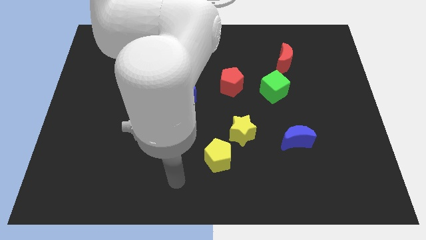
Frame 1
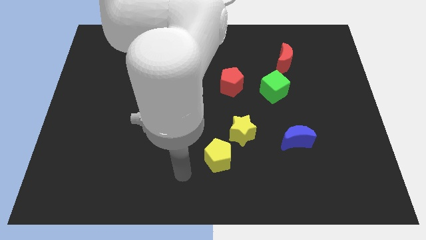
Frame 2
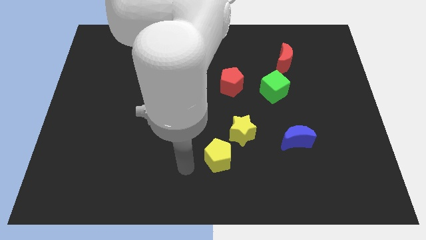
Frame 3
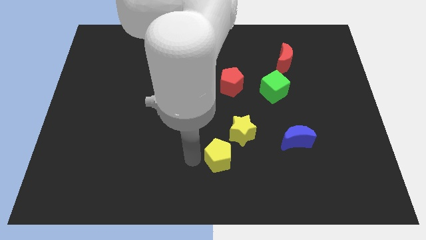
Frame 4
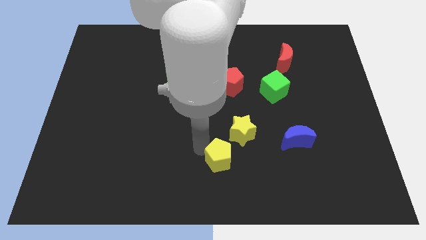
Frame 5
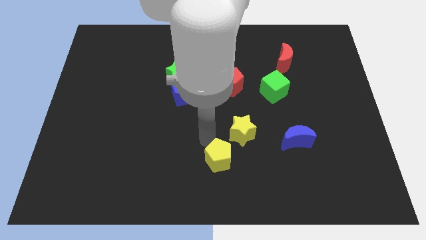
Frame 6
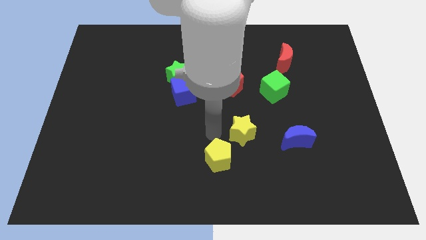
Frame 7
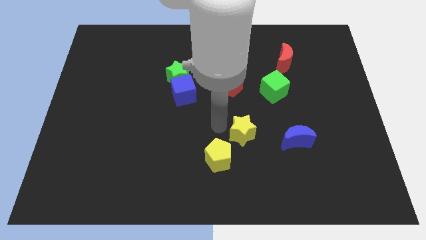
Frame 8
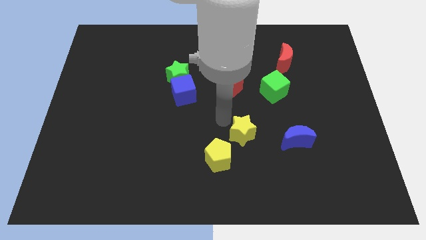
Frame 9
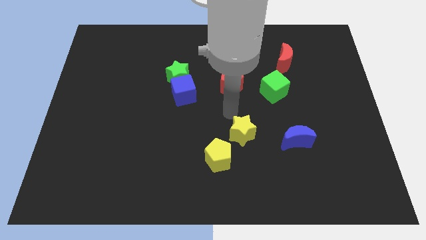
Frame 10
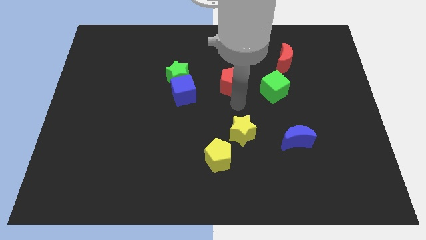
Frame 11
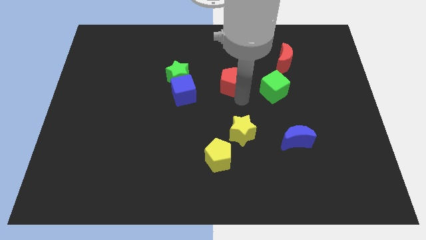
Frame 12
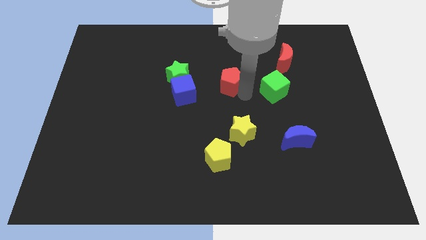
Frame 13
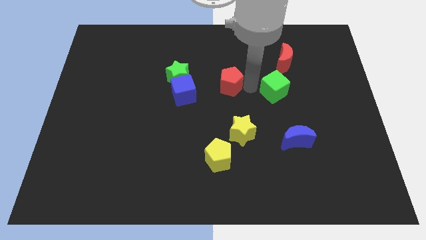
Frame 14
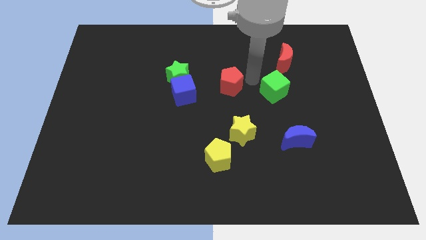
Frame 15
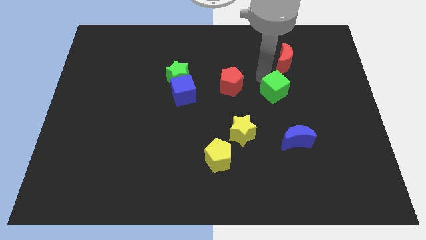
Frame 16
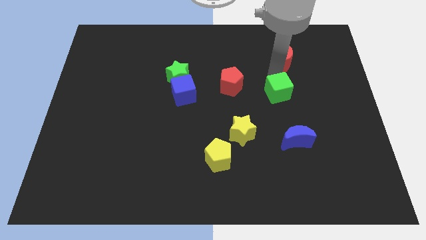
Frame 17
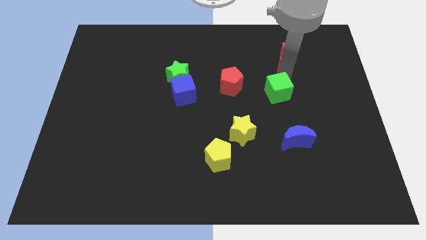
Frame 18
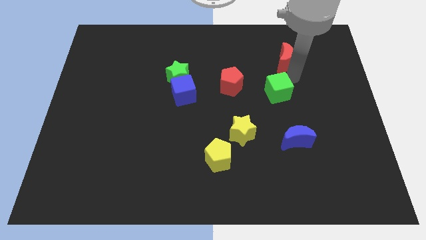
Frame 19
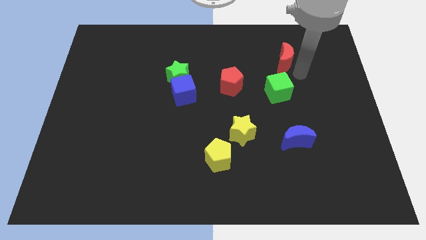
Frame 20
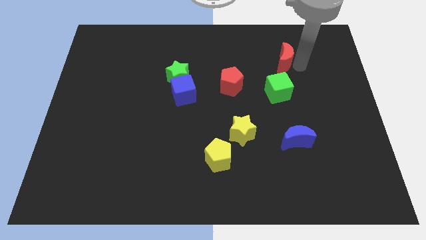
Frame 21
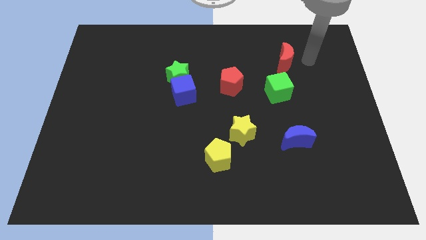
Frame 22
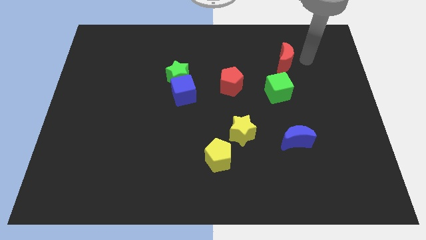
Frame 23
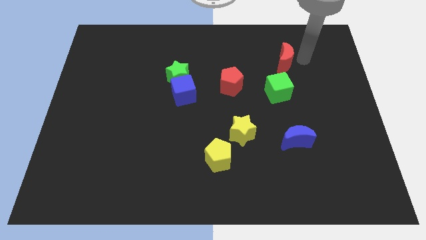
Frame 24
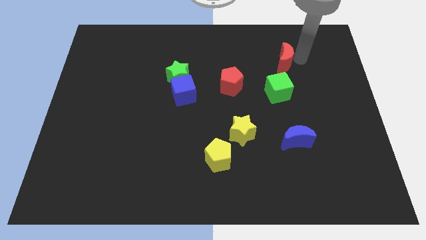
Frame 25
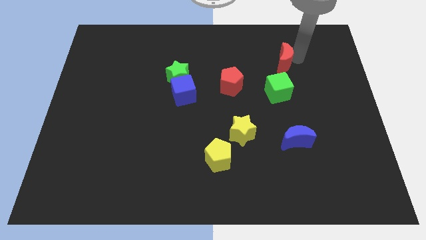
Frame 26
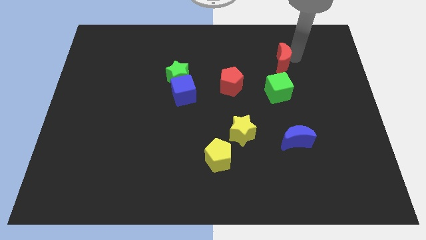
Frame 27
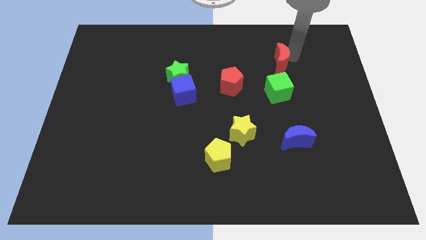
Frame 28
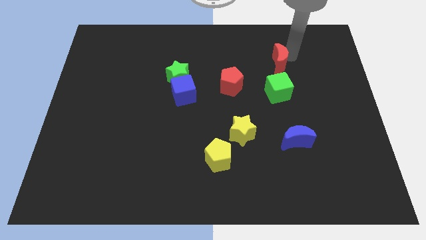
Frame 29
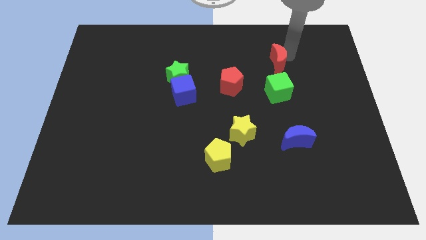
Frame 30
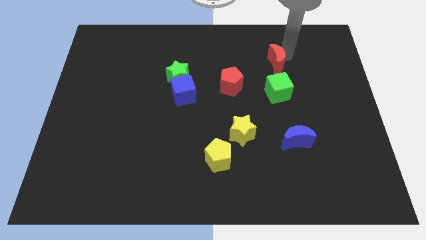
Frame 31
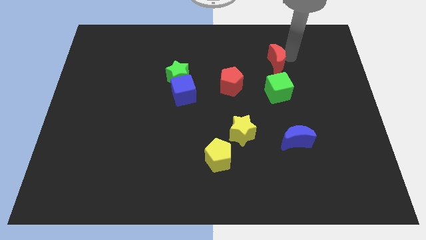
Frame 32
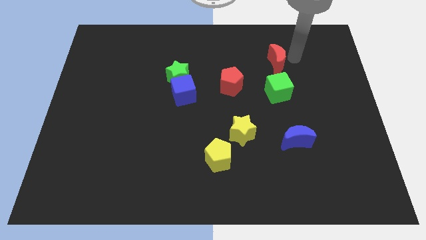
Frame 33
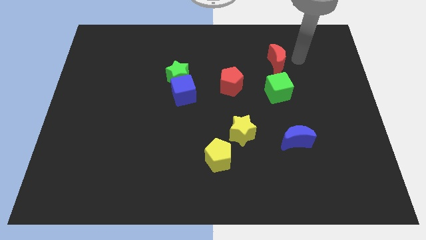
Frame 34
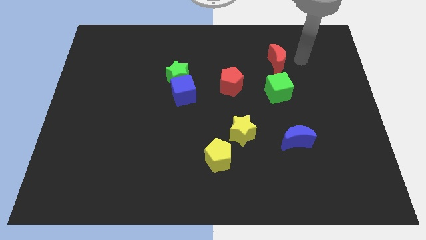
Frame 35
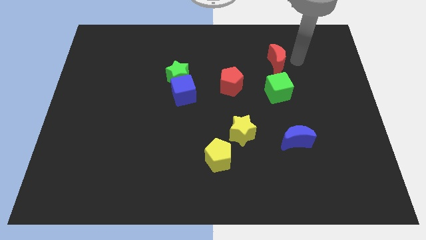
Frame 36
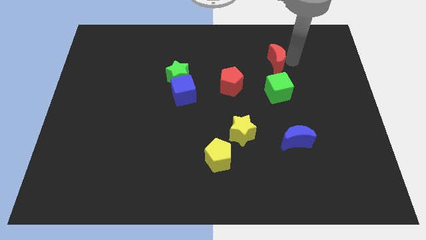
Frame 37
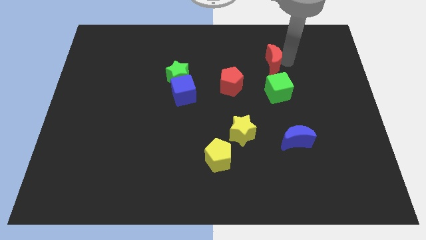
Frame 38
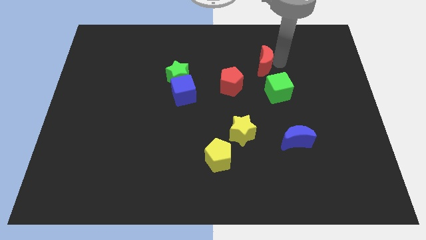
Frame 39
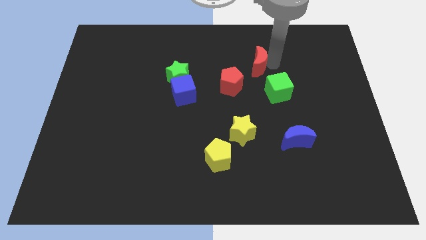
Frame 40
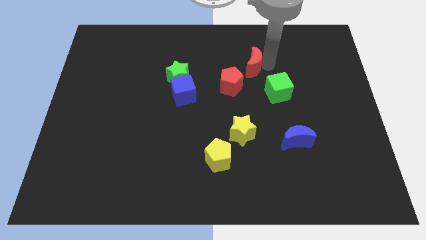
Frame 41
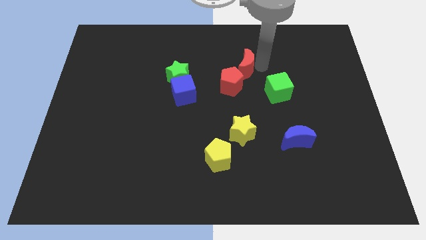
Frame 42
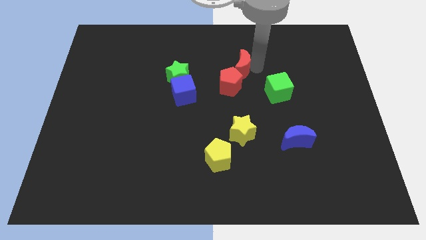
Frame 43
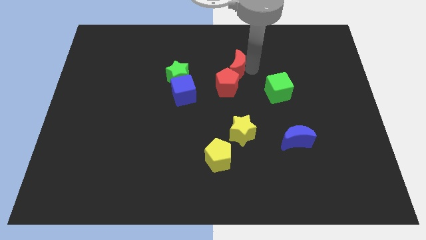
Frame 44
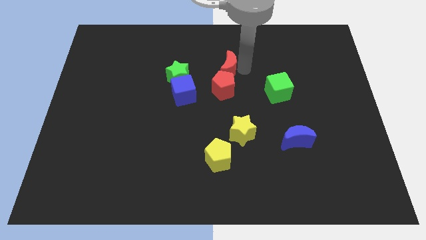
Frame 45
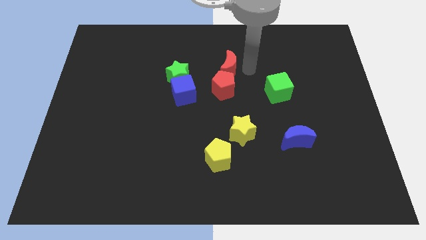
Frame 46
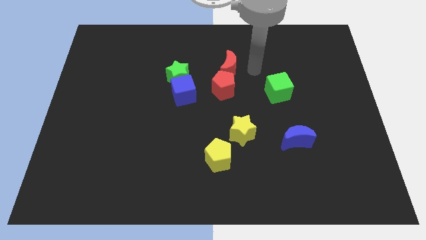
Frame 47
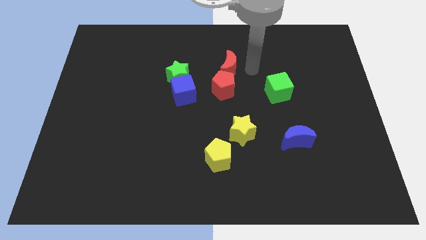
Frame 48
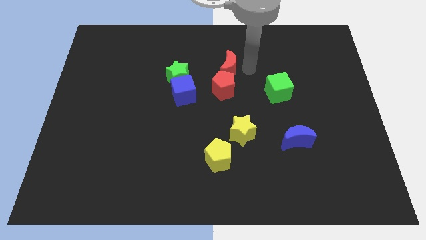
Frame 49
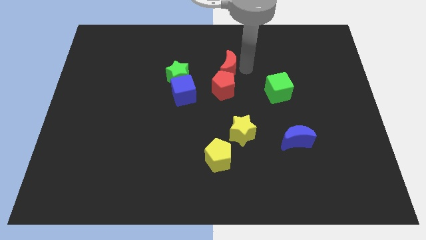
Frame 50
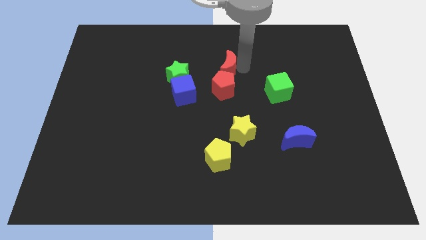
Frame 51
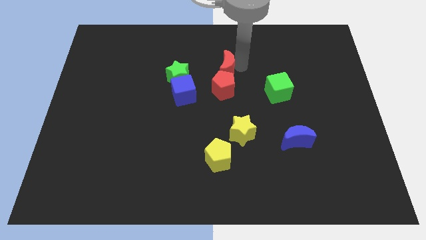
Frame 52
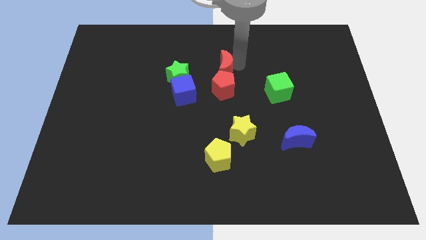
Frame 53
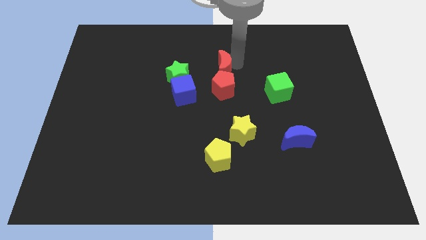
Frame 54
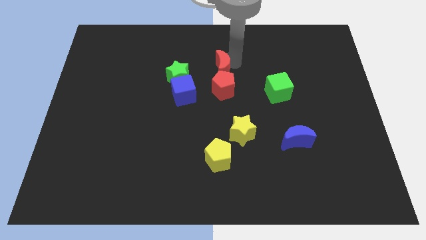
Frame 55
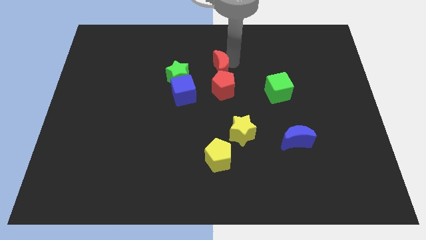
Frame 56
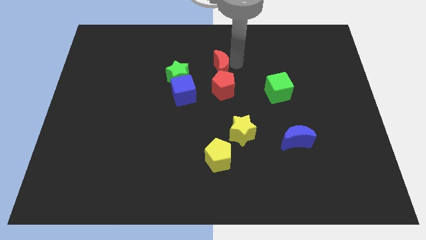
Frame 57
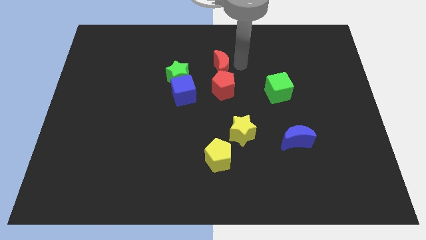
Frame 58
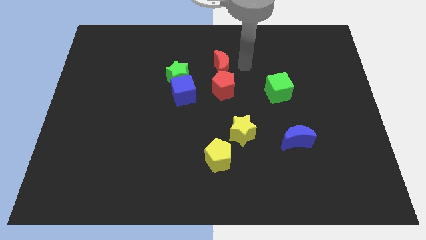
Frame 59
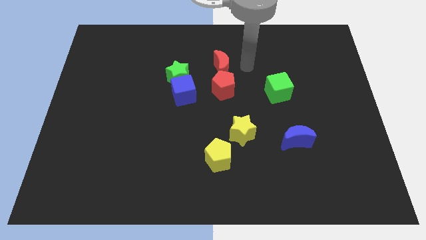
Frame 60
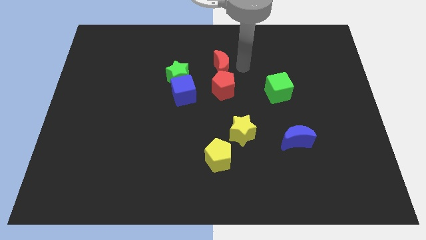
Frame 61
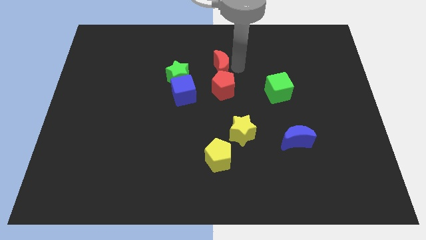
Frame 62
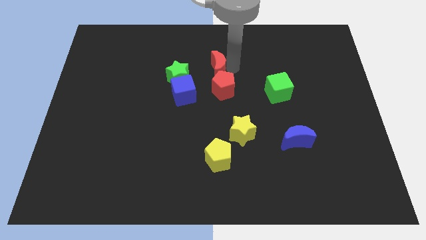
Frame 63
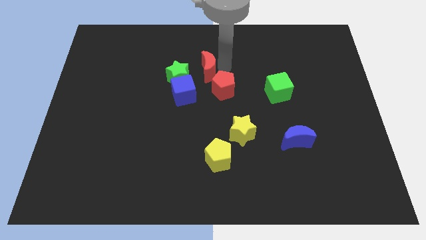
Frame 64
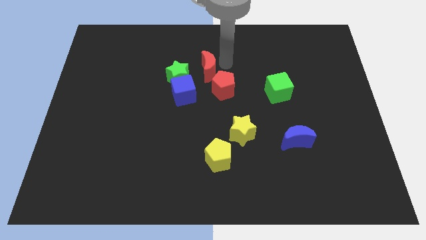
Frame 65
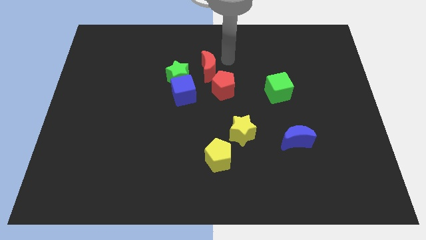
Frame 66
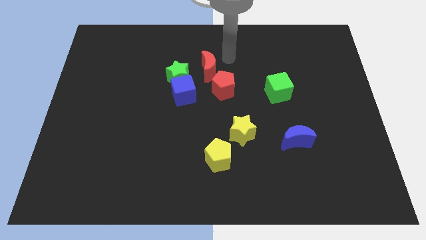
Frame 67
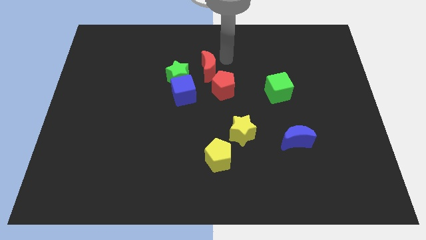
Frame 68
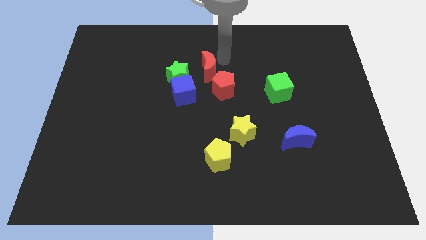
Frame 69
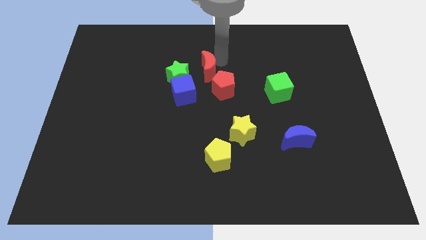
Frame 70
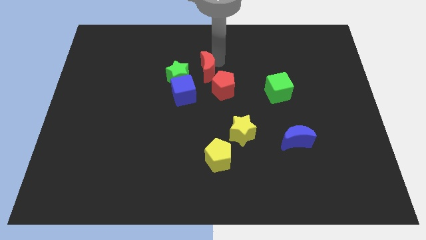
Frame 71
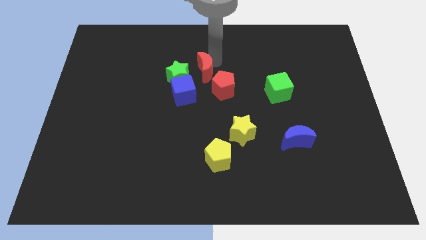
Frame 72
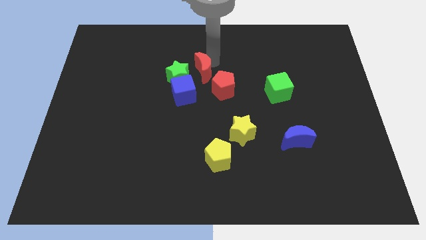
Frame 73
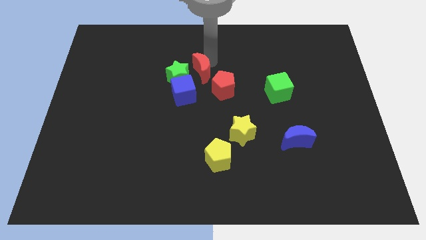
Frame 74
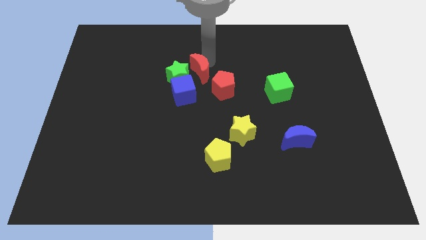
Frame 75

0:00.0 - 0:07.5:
slide the red moon towards the green star

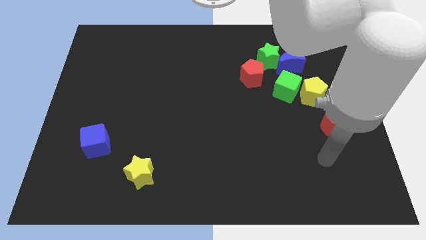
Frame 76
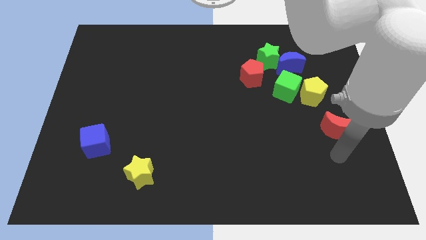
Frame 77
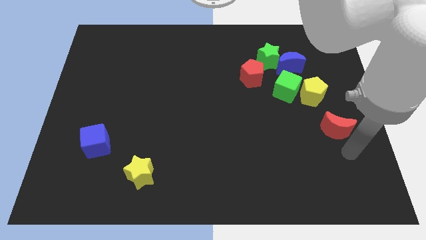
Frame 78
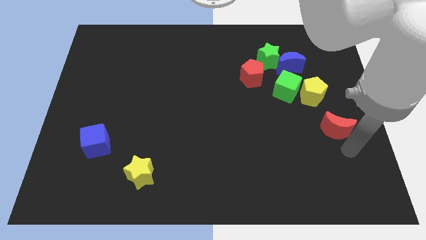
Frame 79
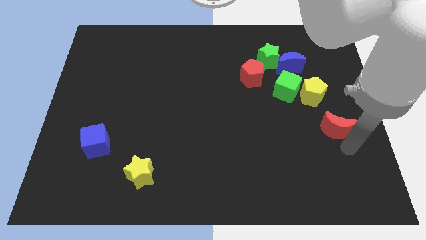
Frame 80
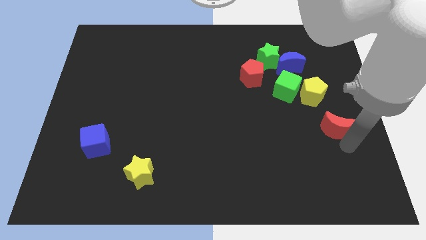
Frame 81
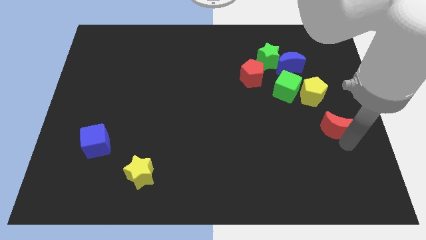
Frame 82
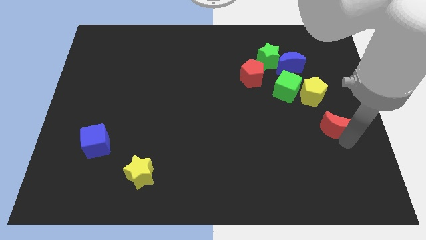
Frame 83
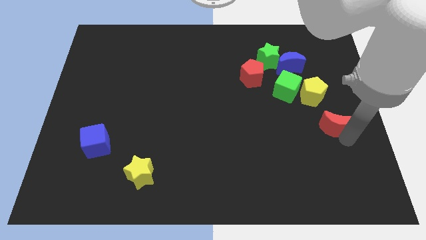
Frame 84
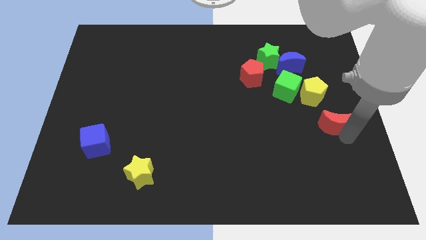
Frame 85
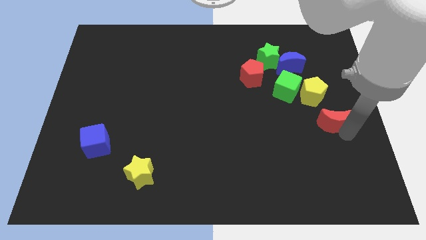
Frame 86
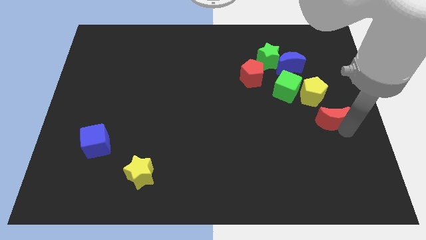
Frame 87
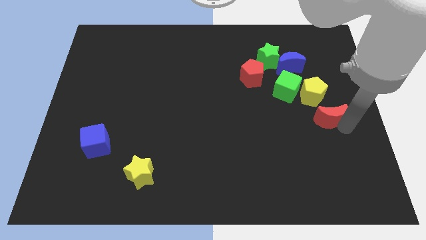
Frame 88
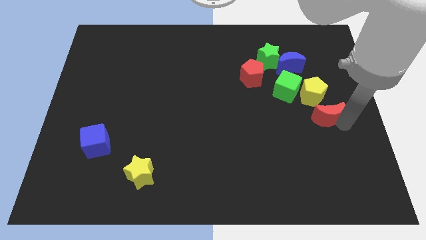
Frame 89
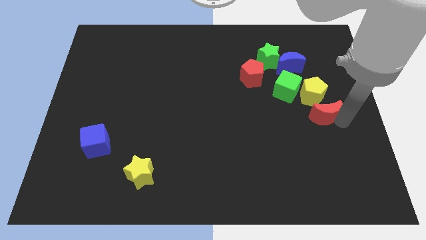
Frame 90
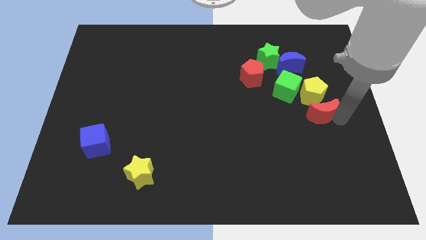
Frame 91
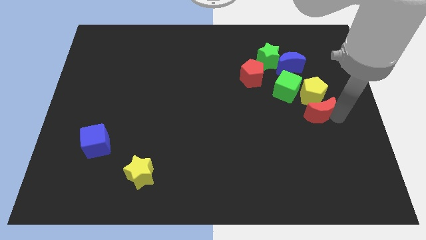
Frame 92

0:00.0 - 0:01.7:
put the red moon close to the yellow pentagon
